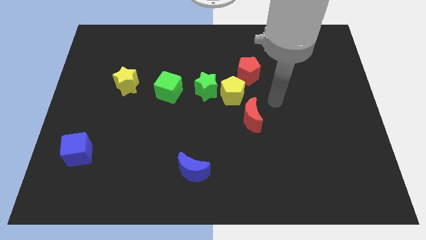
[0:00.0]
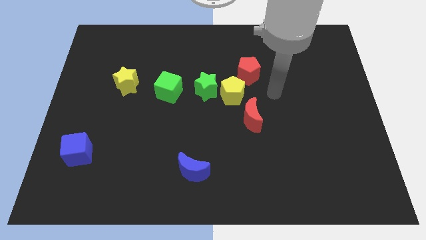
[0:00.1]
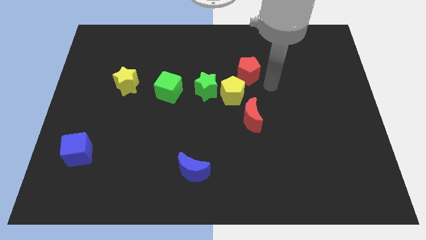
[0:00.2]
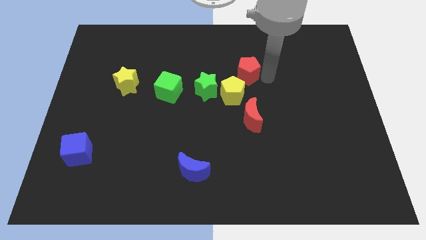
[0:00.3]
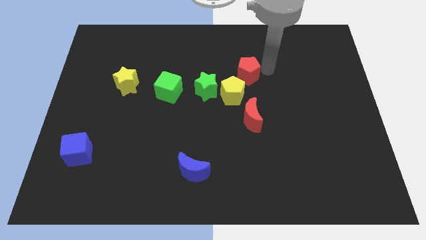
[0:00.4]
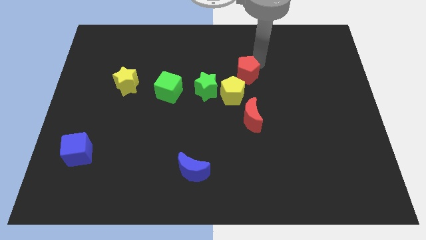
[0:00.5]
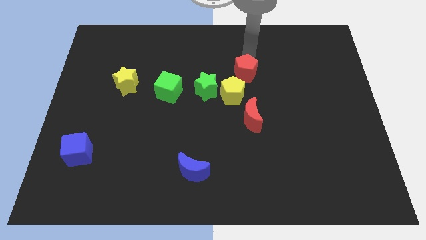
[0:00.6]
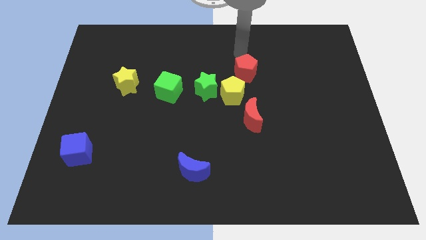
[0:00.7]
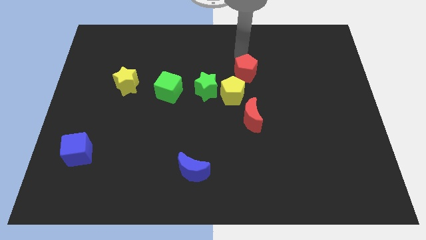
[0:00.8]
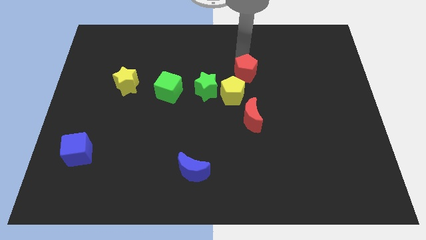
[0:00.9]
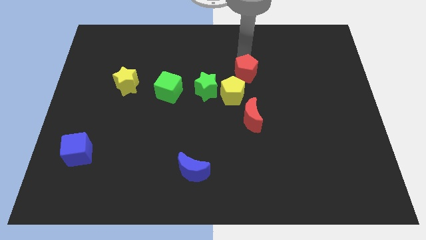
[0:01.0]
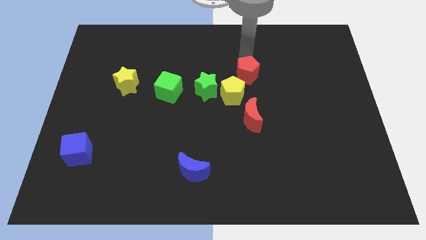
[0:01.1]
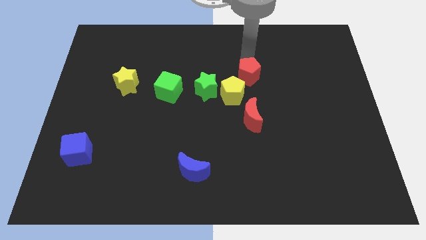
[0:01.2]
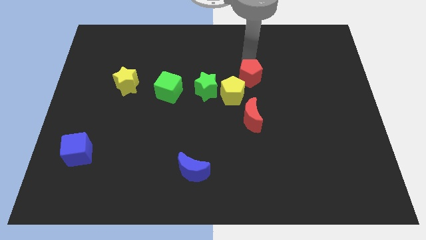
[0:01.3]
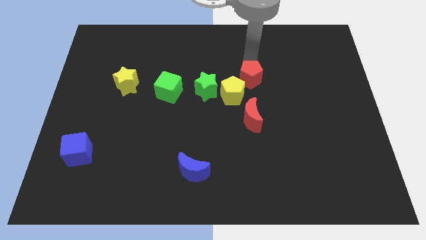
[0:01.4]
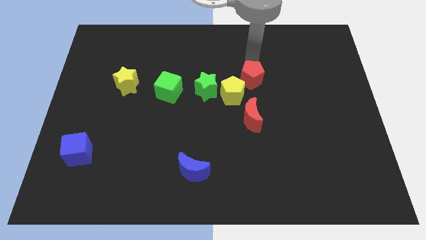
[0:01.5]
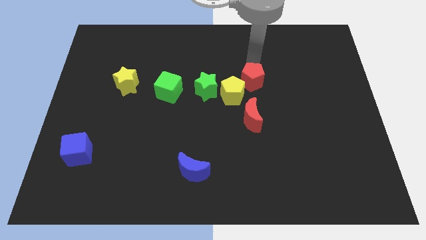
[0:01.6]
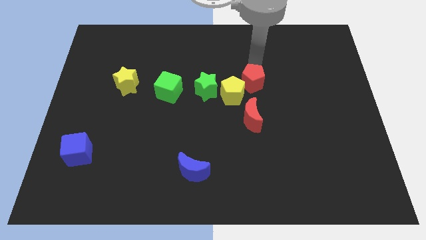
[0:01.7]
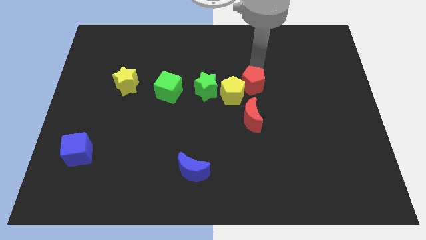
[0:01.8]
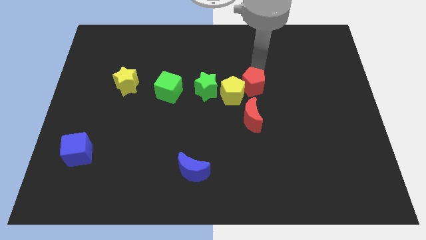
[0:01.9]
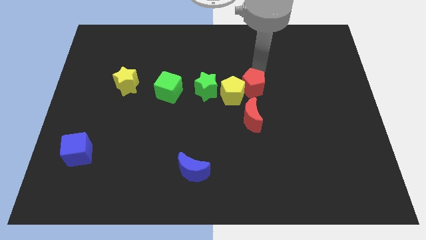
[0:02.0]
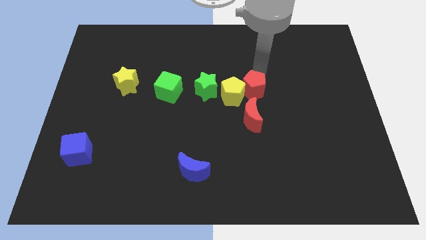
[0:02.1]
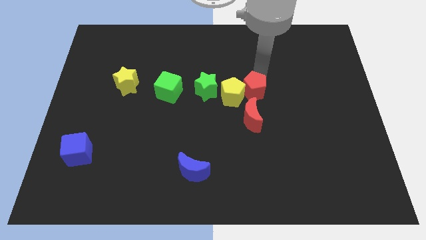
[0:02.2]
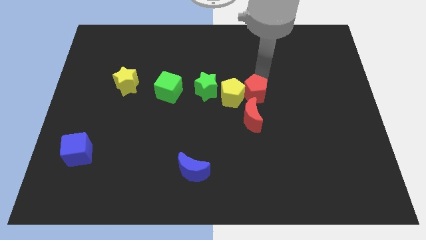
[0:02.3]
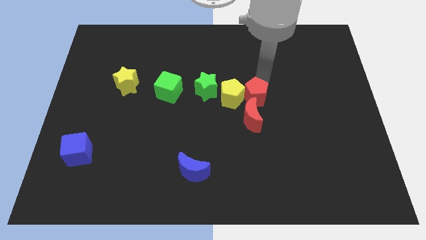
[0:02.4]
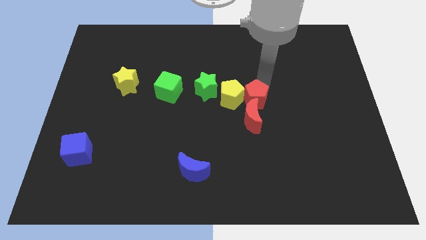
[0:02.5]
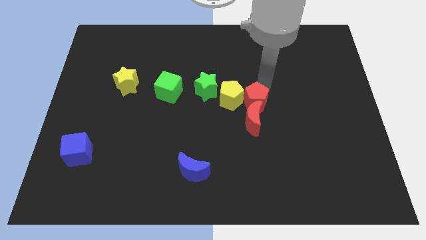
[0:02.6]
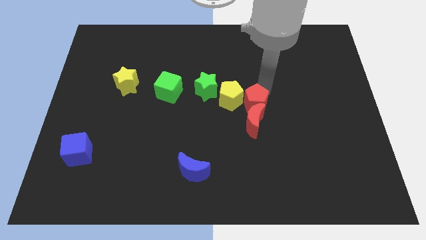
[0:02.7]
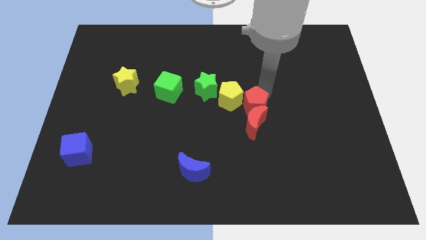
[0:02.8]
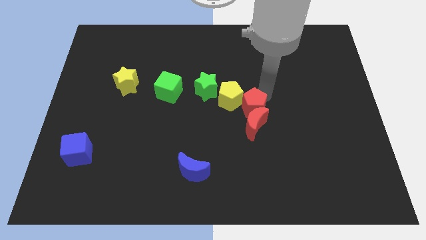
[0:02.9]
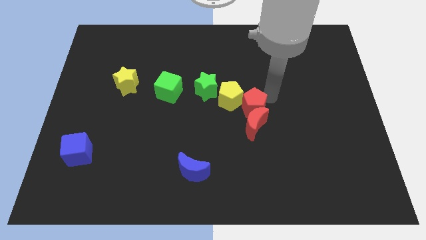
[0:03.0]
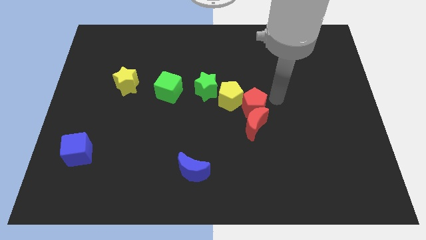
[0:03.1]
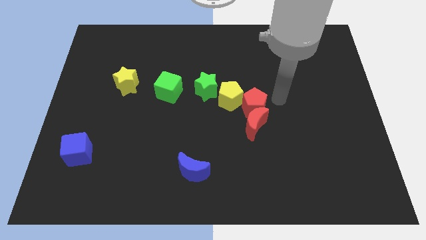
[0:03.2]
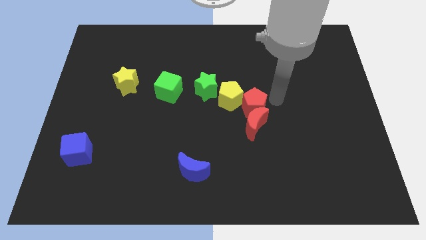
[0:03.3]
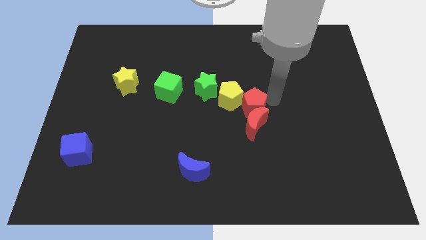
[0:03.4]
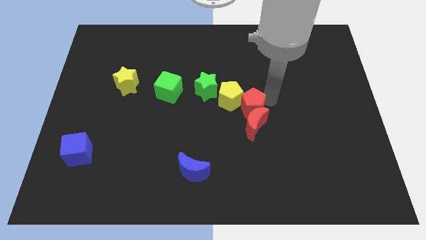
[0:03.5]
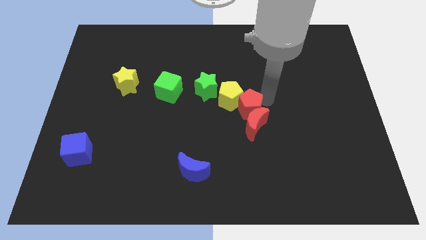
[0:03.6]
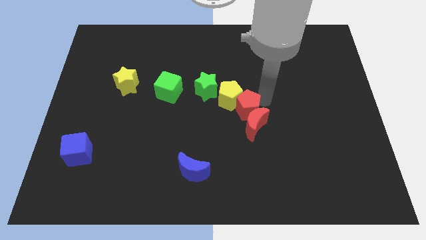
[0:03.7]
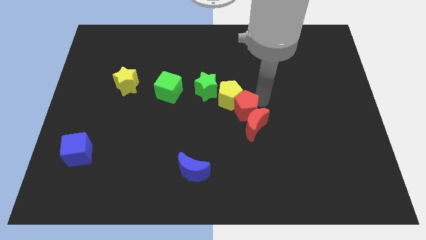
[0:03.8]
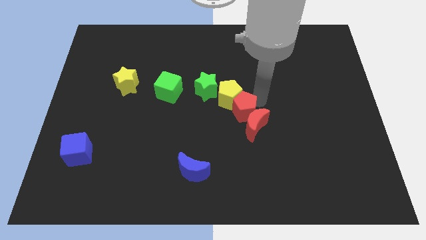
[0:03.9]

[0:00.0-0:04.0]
slightly slide the red pentagon downwards and to the left

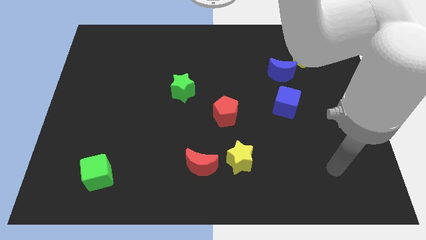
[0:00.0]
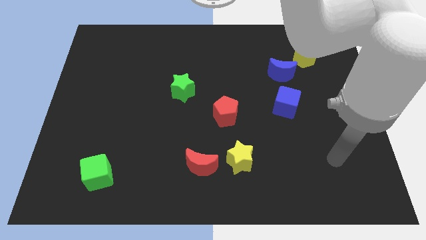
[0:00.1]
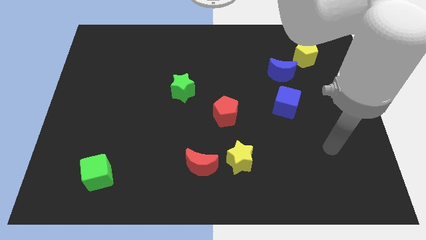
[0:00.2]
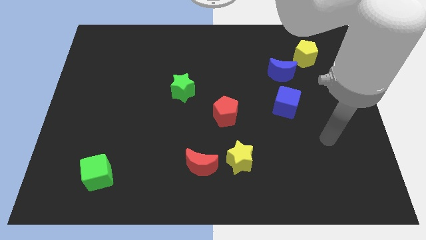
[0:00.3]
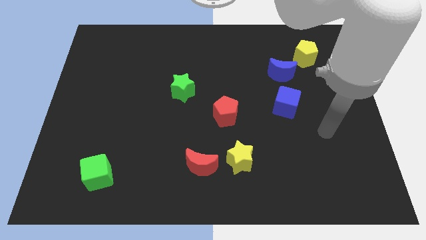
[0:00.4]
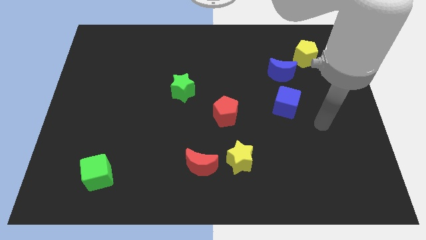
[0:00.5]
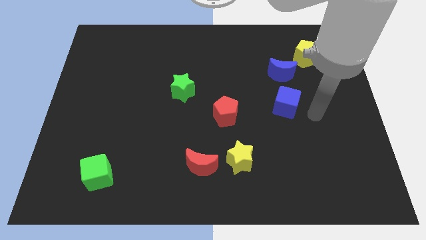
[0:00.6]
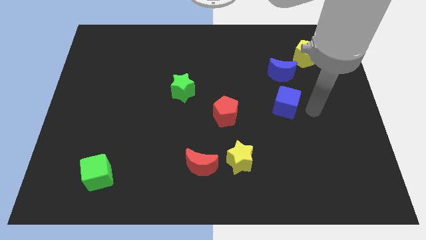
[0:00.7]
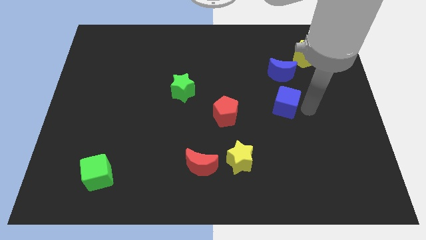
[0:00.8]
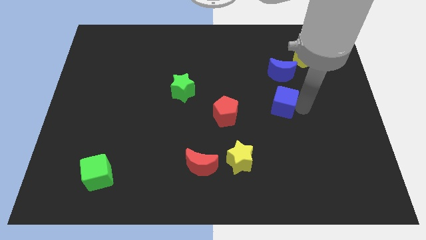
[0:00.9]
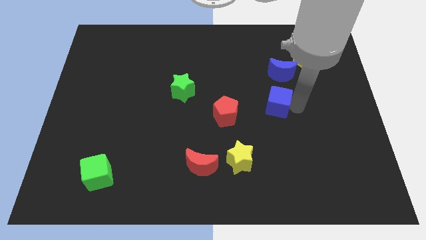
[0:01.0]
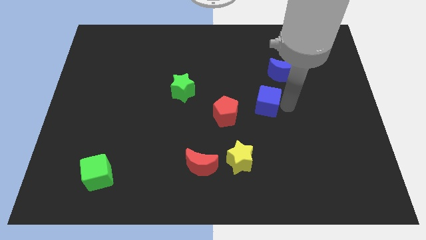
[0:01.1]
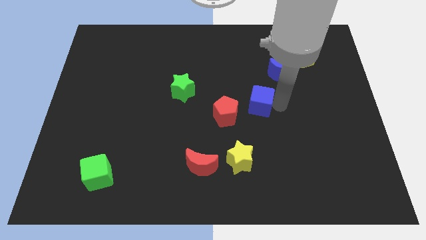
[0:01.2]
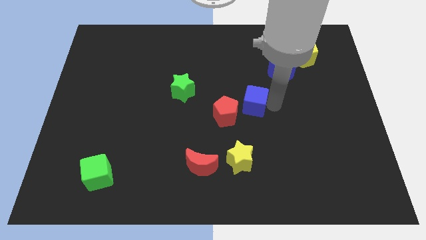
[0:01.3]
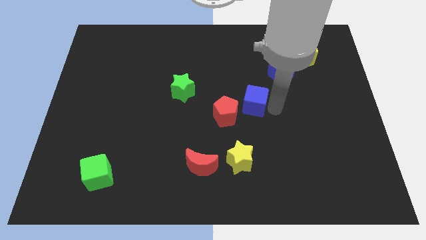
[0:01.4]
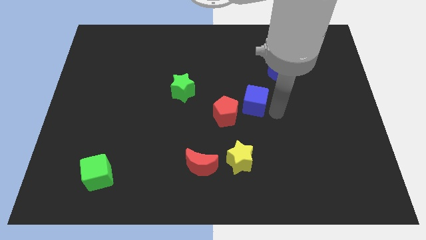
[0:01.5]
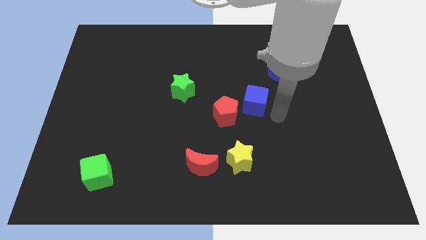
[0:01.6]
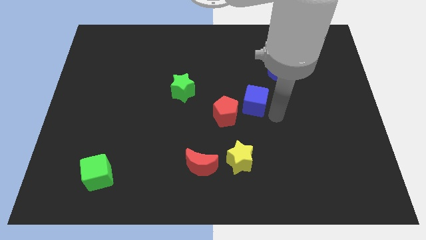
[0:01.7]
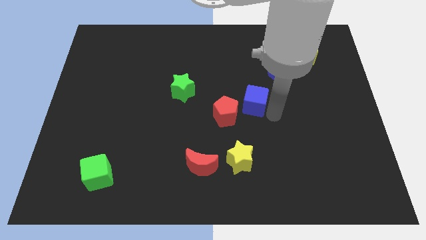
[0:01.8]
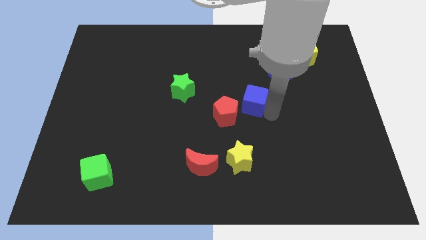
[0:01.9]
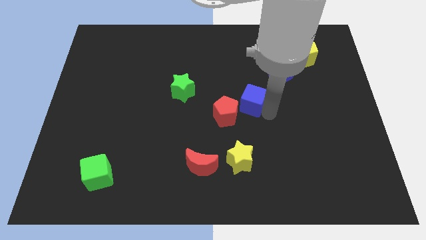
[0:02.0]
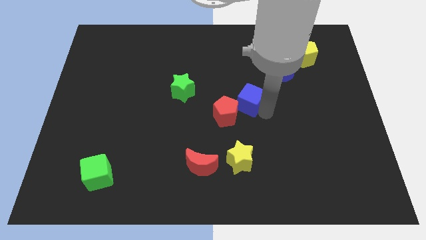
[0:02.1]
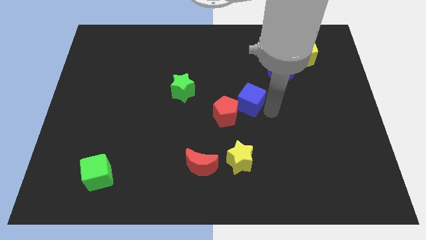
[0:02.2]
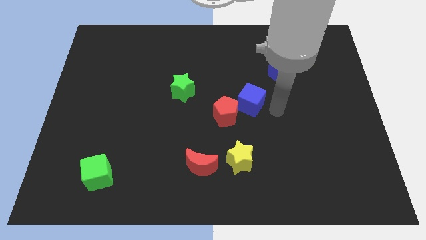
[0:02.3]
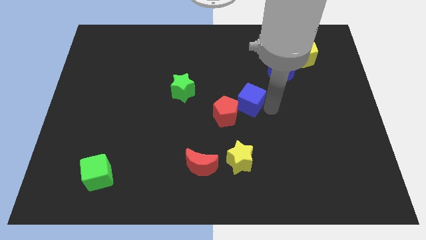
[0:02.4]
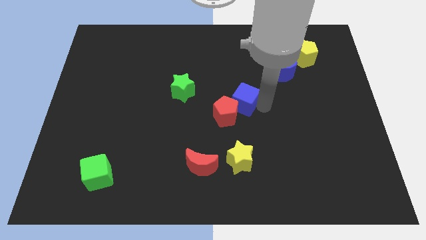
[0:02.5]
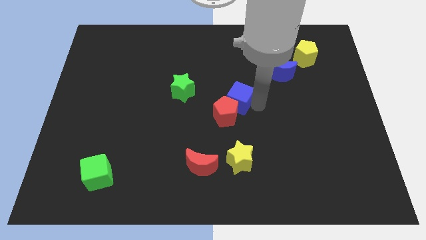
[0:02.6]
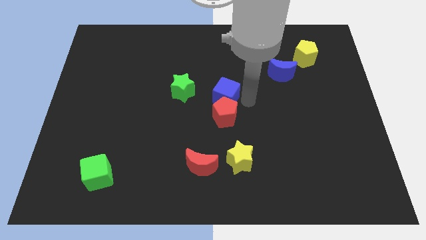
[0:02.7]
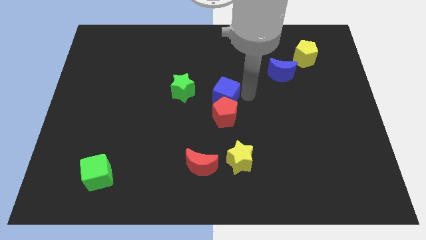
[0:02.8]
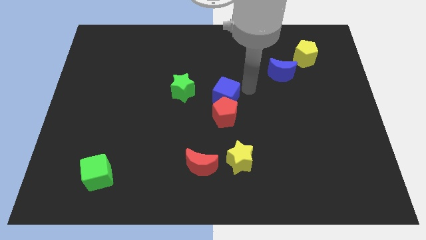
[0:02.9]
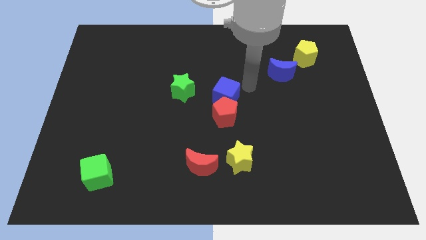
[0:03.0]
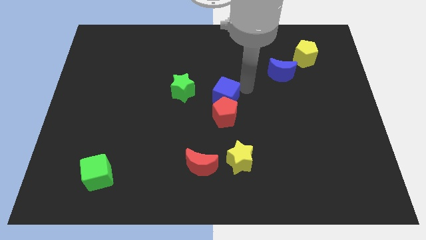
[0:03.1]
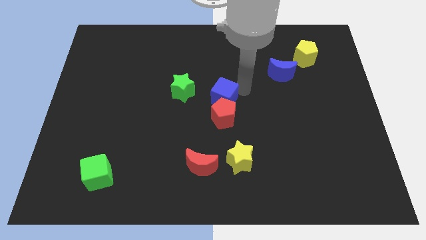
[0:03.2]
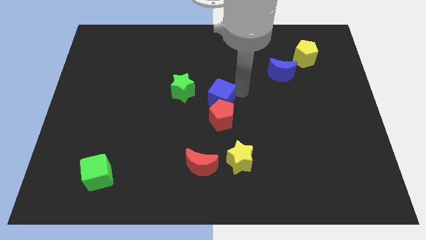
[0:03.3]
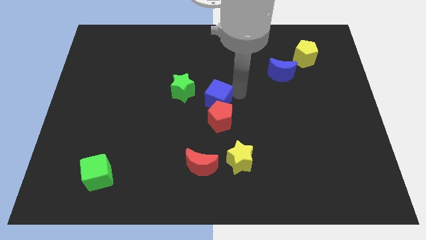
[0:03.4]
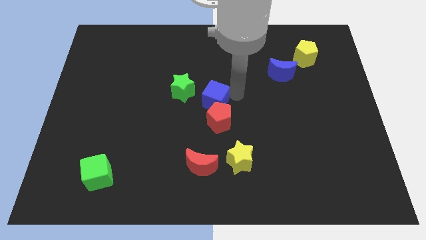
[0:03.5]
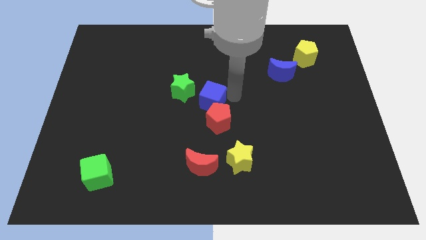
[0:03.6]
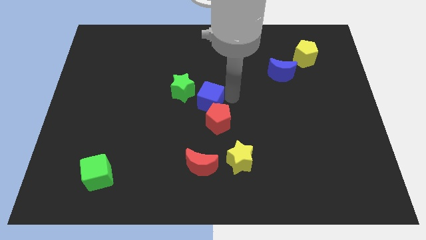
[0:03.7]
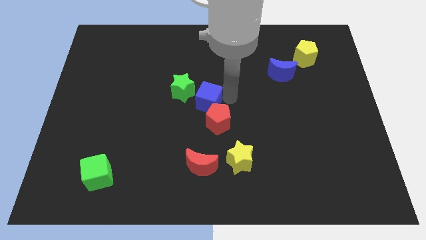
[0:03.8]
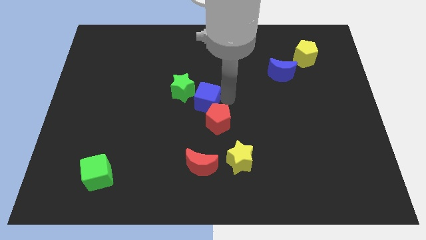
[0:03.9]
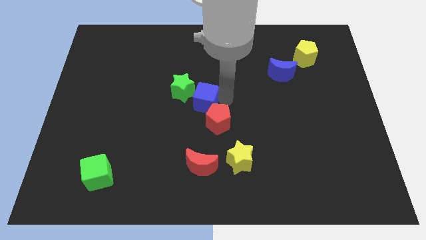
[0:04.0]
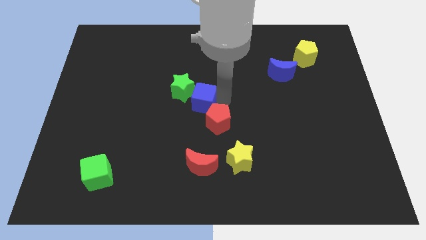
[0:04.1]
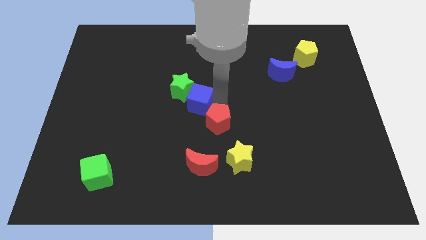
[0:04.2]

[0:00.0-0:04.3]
push the blue cube left

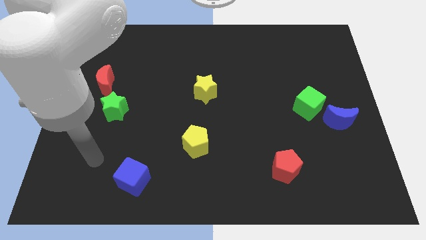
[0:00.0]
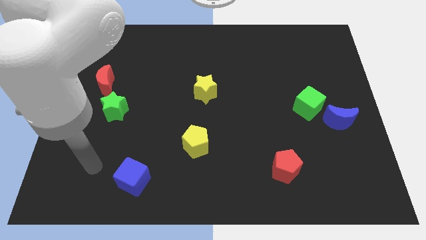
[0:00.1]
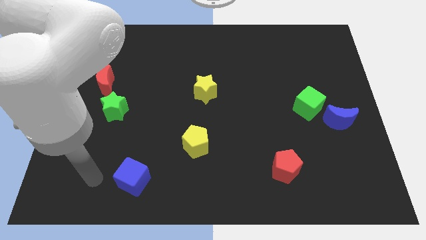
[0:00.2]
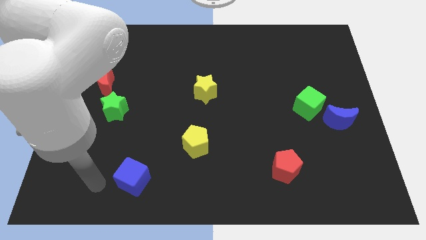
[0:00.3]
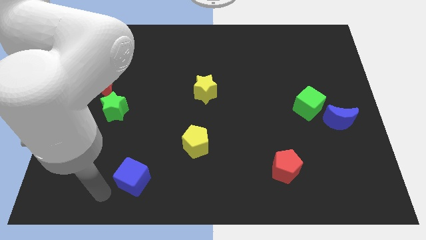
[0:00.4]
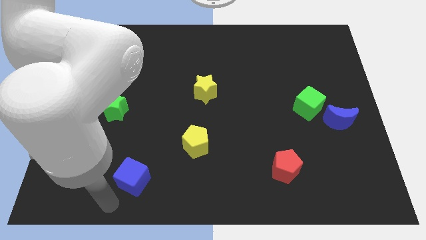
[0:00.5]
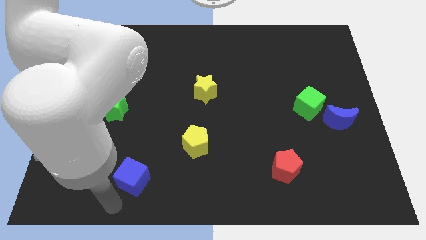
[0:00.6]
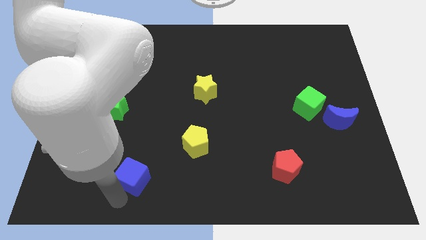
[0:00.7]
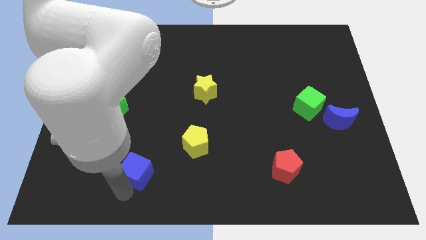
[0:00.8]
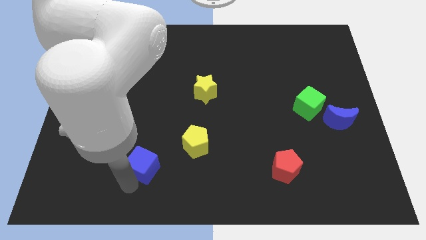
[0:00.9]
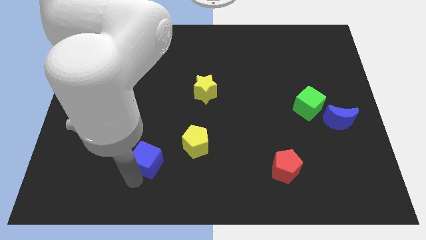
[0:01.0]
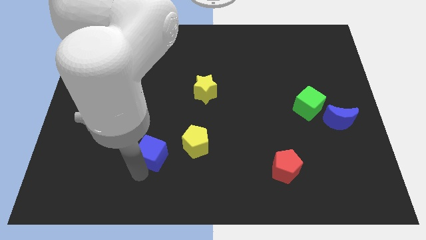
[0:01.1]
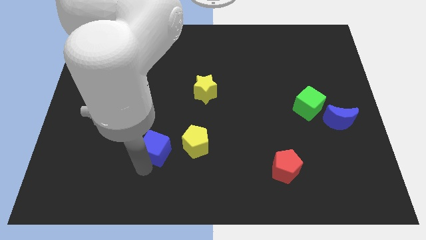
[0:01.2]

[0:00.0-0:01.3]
slide the blue cube upwards and to the right diagonally a bit
